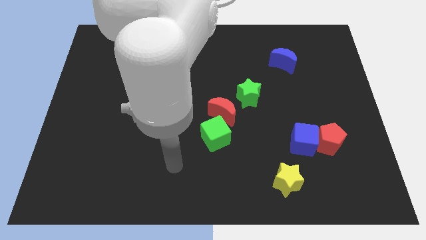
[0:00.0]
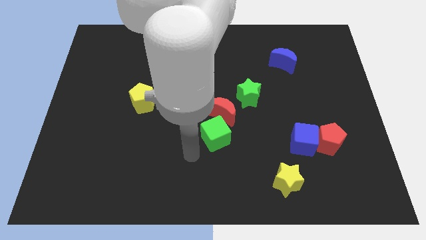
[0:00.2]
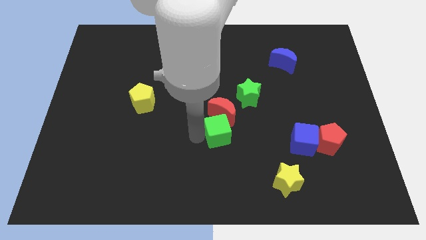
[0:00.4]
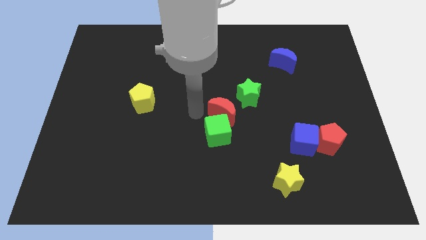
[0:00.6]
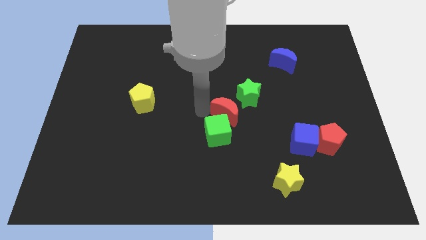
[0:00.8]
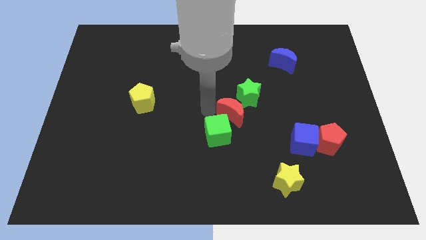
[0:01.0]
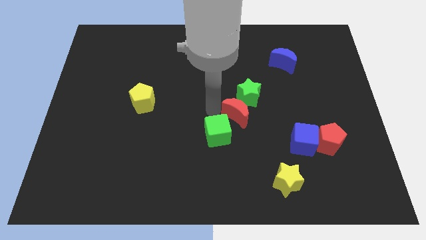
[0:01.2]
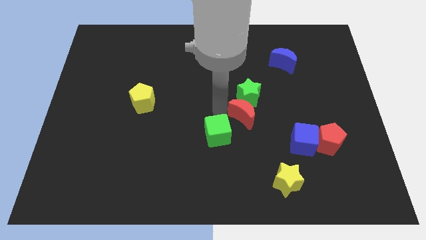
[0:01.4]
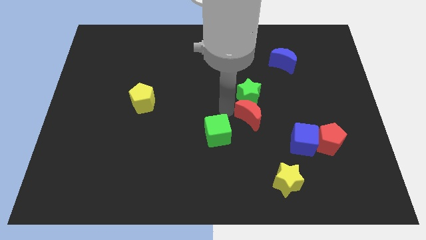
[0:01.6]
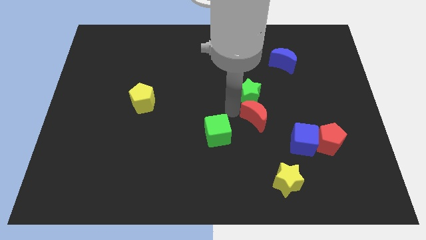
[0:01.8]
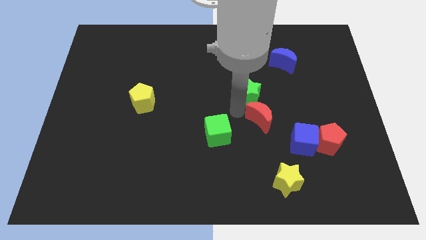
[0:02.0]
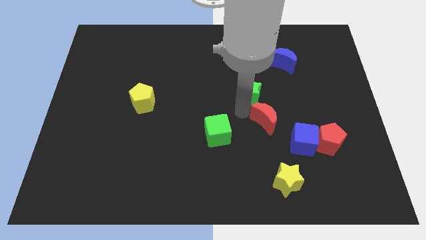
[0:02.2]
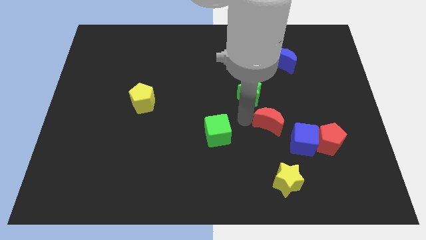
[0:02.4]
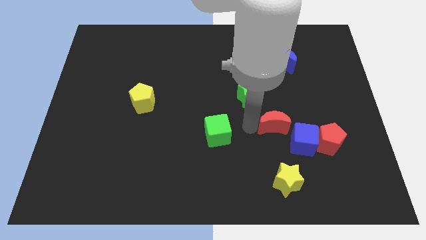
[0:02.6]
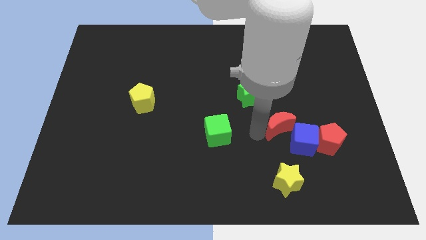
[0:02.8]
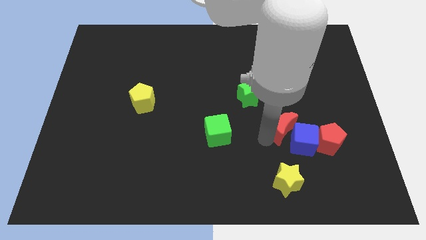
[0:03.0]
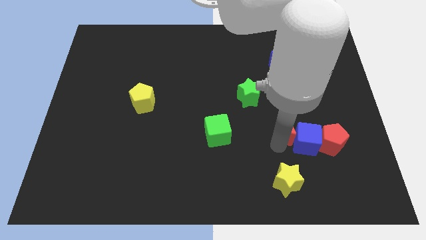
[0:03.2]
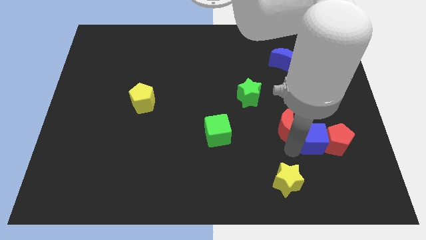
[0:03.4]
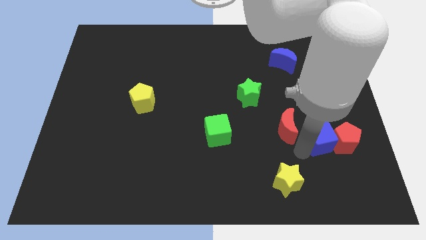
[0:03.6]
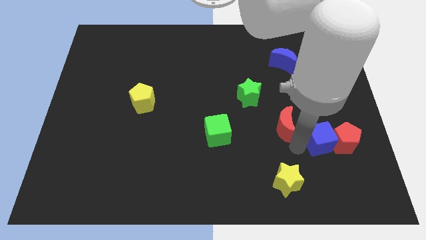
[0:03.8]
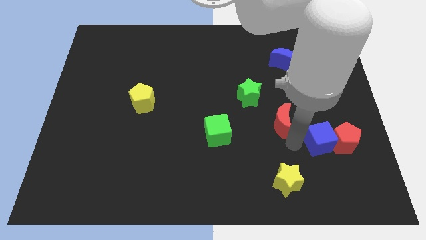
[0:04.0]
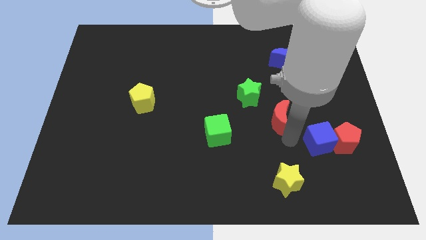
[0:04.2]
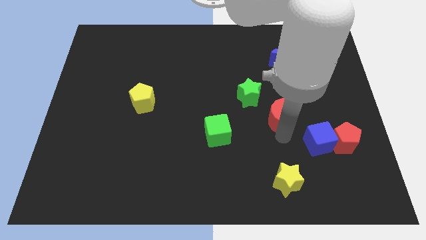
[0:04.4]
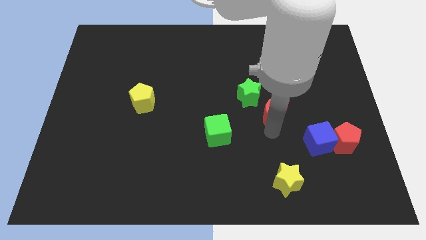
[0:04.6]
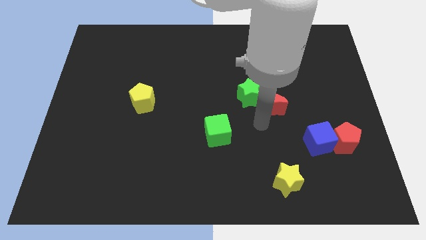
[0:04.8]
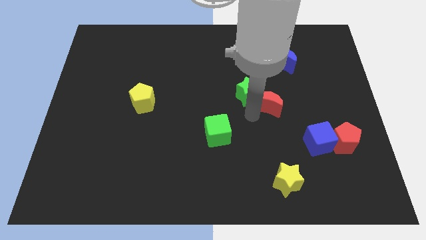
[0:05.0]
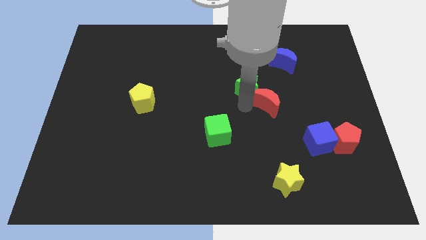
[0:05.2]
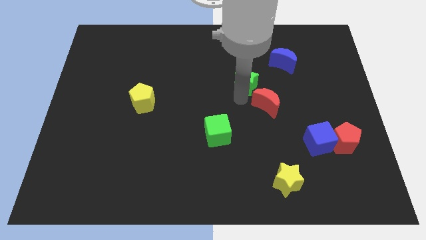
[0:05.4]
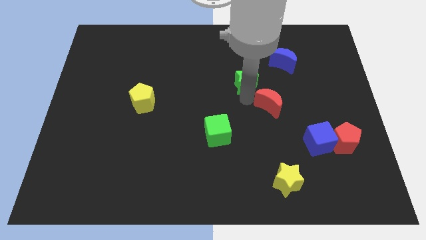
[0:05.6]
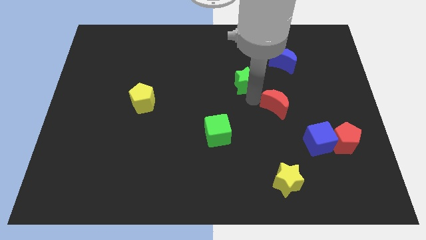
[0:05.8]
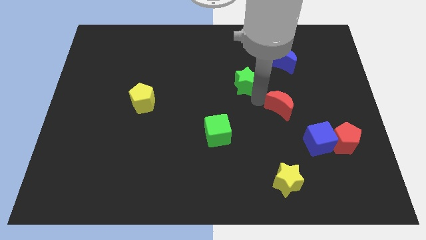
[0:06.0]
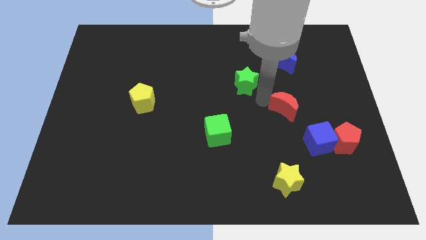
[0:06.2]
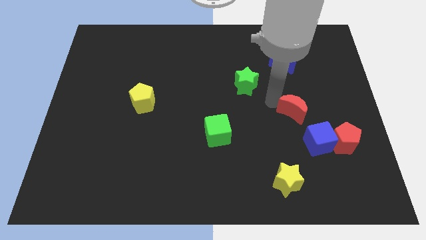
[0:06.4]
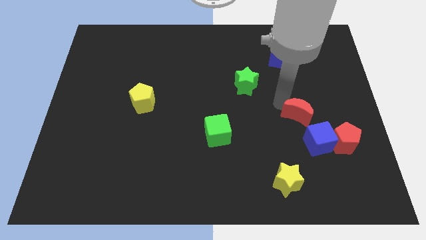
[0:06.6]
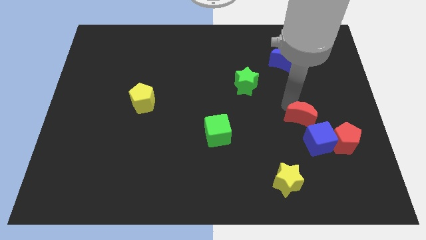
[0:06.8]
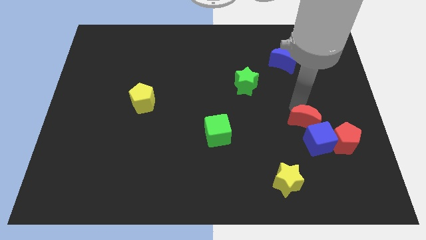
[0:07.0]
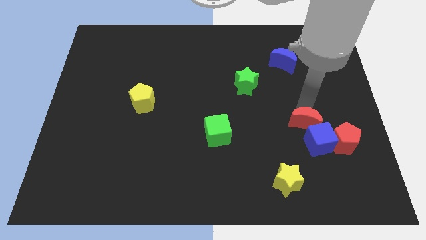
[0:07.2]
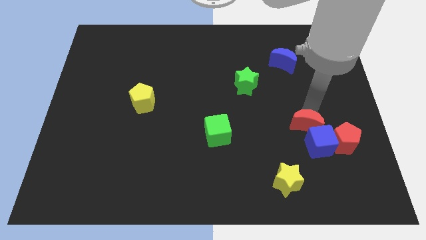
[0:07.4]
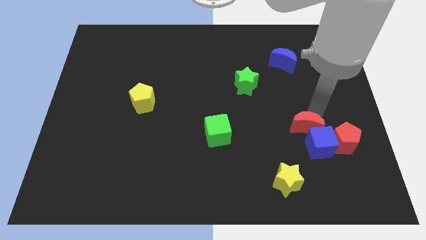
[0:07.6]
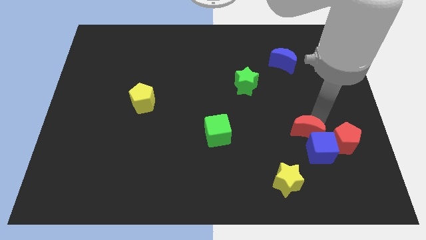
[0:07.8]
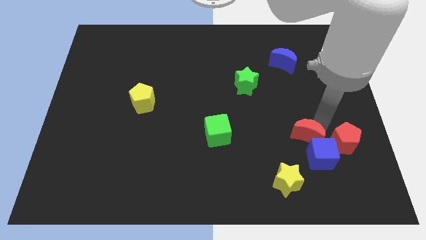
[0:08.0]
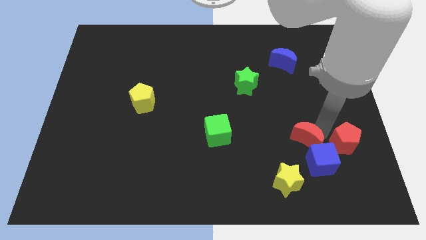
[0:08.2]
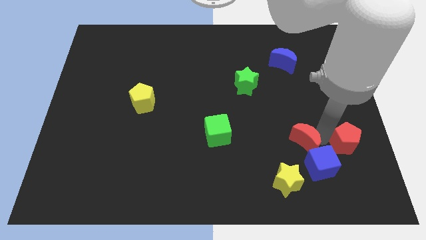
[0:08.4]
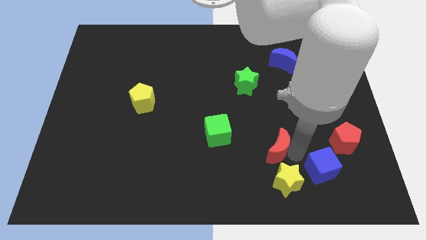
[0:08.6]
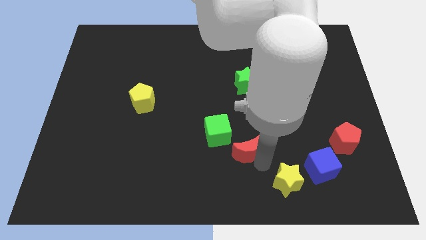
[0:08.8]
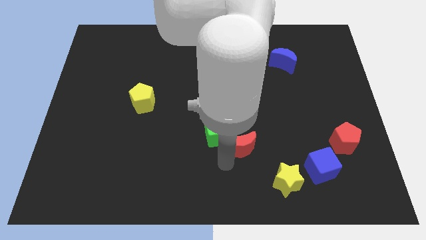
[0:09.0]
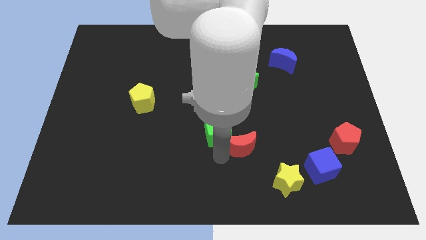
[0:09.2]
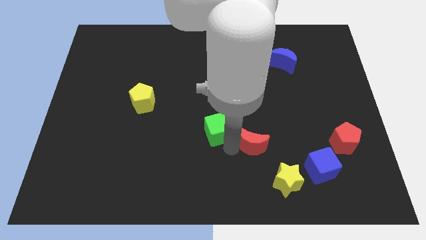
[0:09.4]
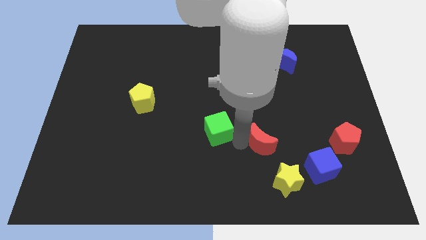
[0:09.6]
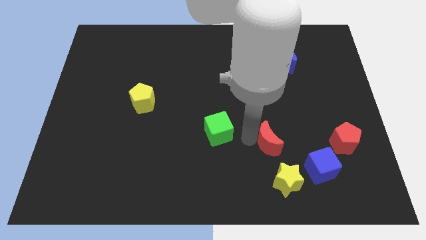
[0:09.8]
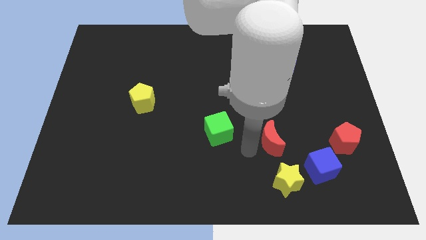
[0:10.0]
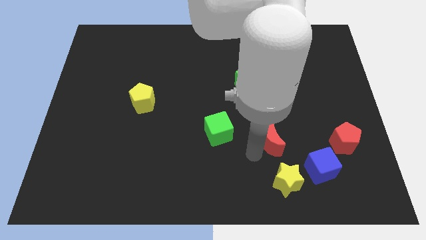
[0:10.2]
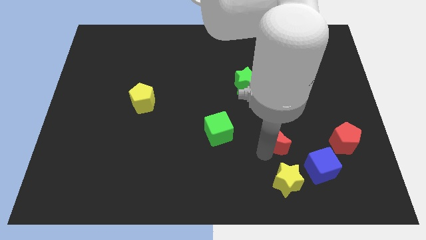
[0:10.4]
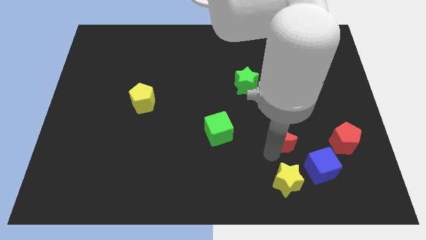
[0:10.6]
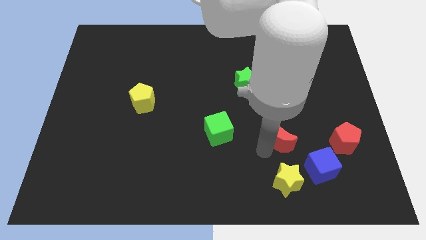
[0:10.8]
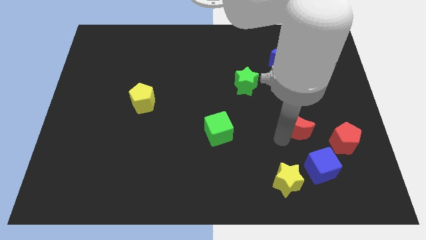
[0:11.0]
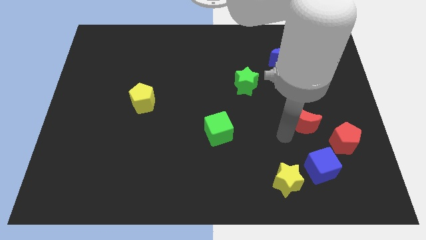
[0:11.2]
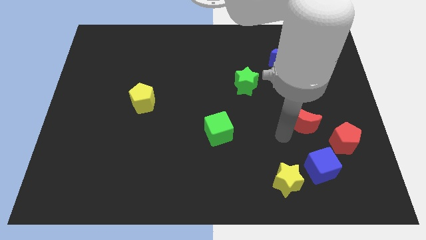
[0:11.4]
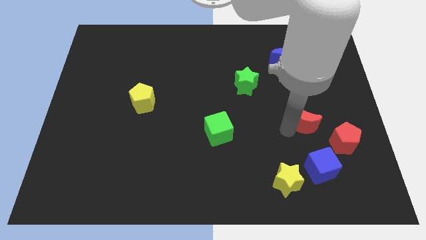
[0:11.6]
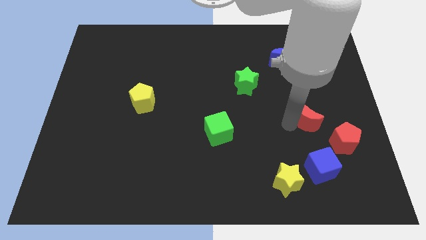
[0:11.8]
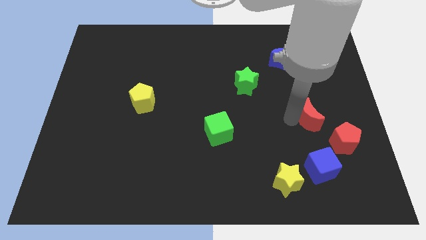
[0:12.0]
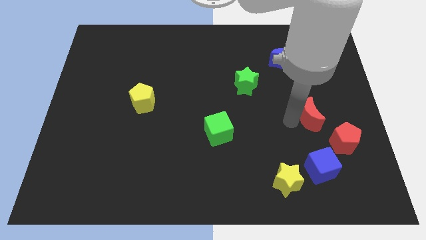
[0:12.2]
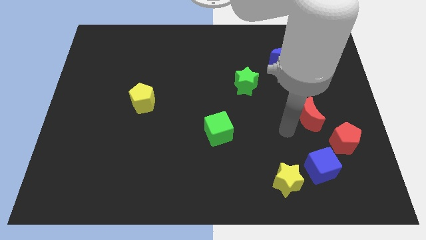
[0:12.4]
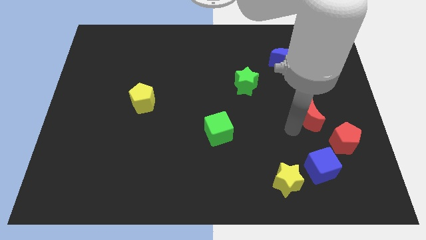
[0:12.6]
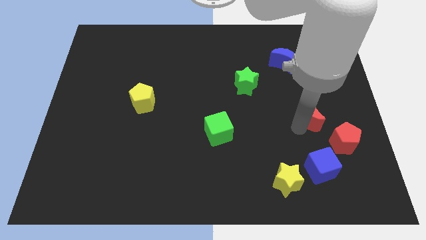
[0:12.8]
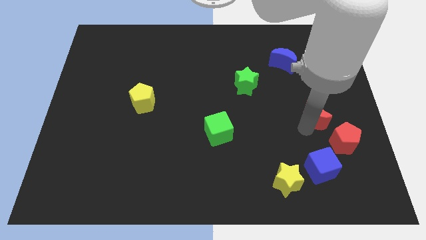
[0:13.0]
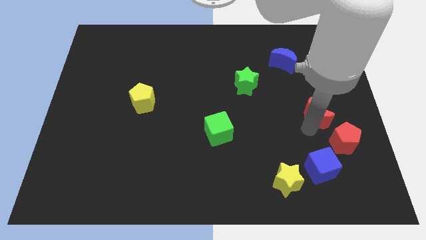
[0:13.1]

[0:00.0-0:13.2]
put the red moon to the top side of the red pentagon

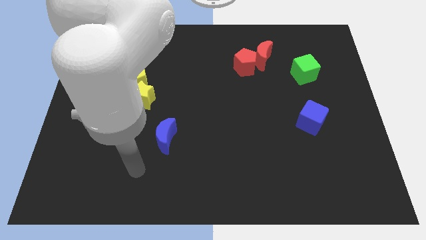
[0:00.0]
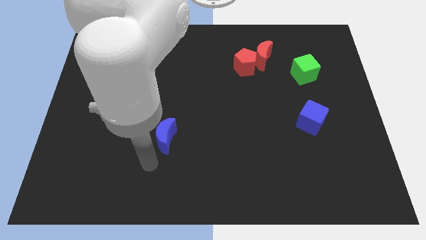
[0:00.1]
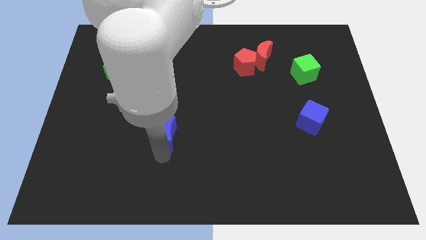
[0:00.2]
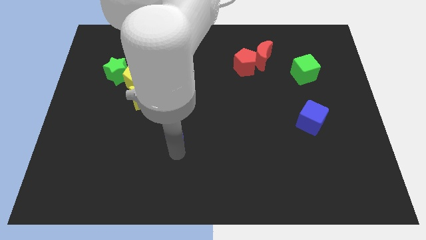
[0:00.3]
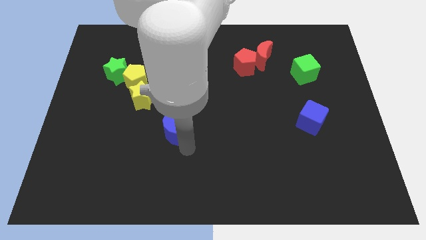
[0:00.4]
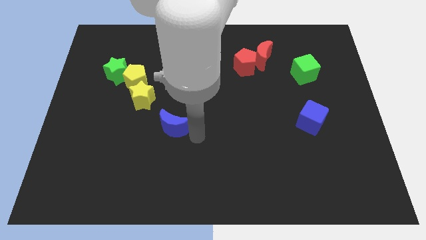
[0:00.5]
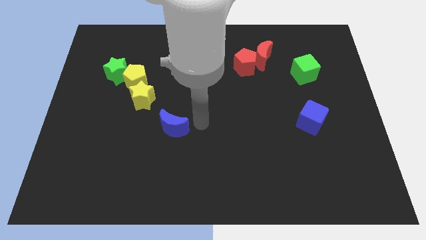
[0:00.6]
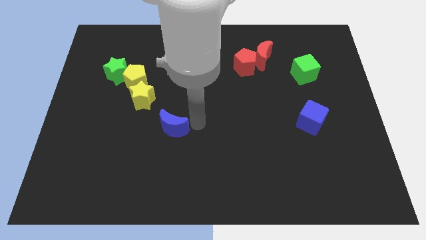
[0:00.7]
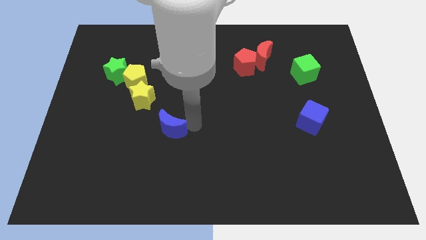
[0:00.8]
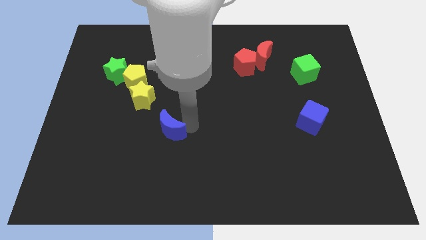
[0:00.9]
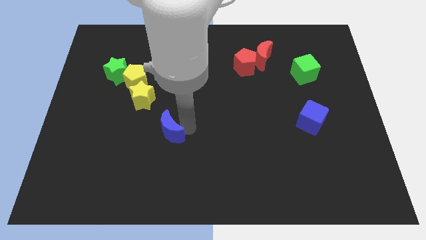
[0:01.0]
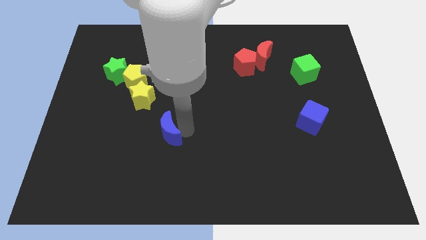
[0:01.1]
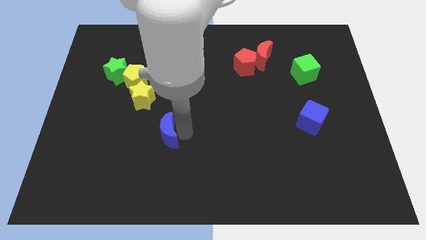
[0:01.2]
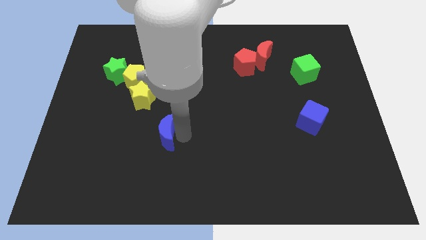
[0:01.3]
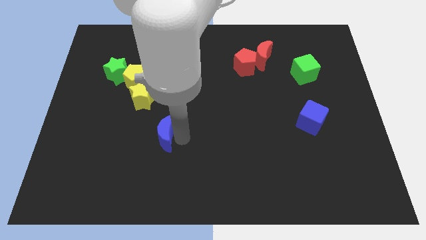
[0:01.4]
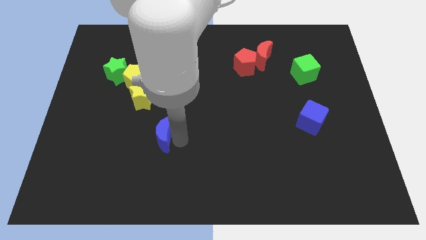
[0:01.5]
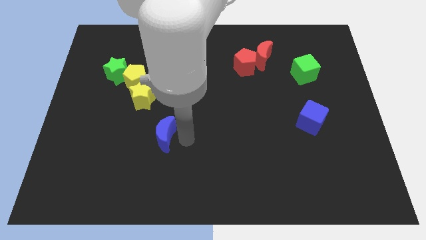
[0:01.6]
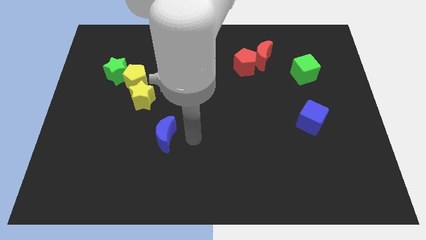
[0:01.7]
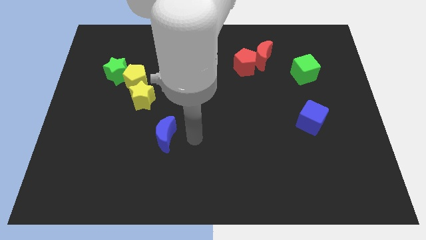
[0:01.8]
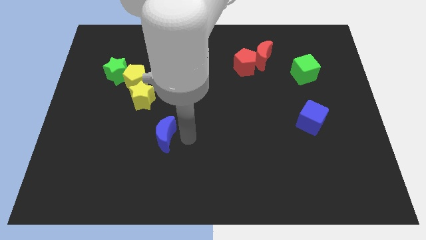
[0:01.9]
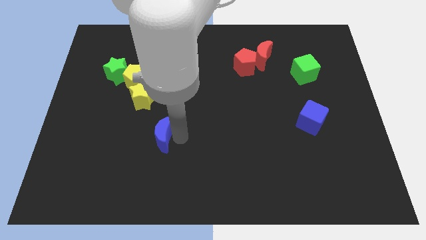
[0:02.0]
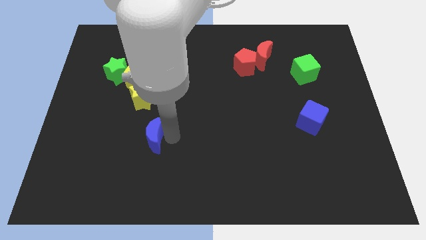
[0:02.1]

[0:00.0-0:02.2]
slide the blue moon to the bottom of the yellow star
